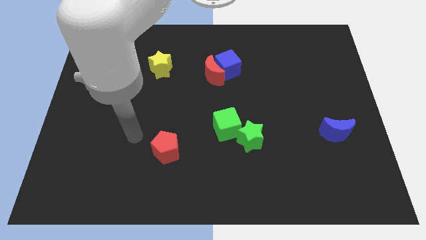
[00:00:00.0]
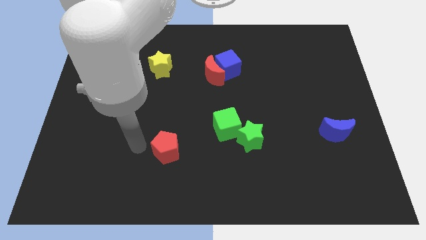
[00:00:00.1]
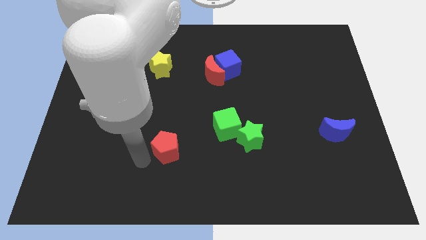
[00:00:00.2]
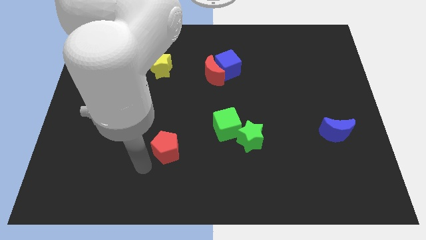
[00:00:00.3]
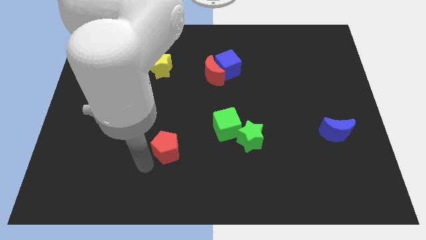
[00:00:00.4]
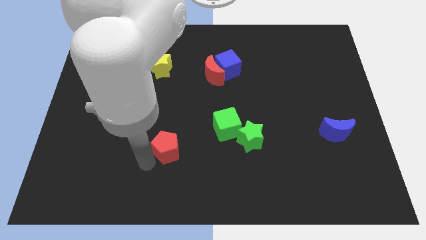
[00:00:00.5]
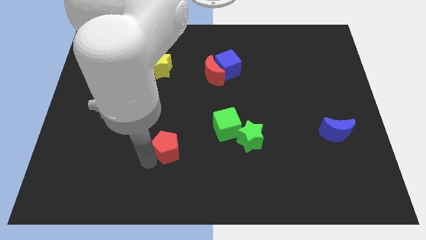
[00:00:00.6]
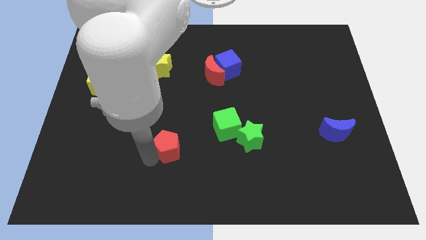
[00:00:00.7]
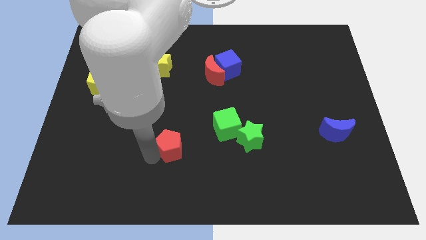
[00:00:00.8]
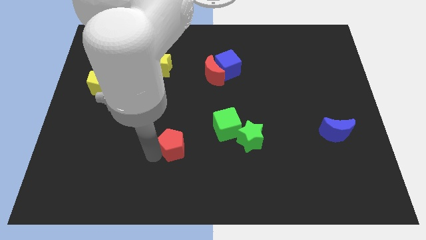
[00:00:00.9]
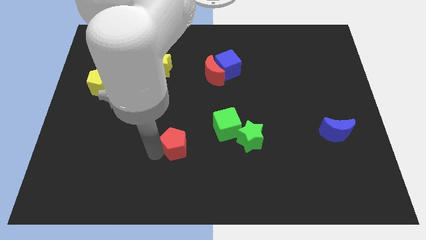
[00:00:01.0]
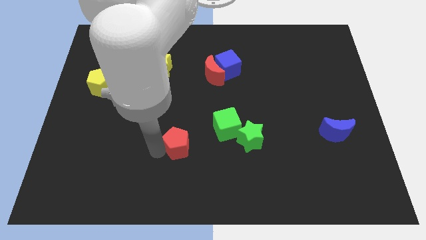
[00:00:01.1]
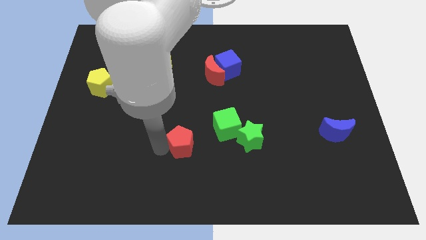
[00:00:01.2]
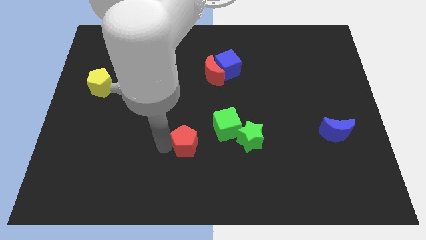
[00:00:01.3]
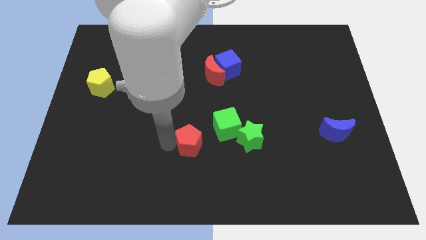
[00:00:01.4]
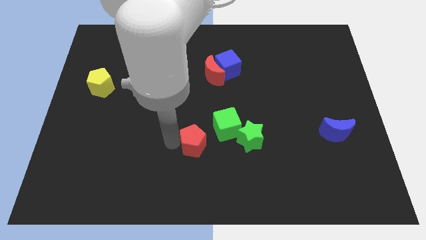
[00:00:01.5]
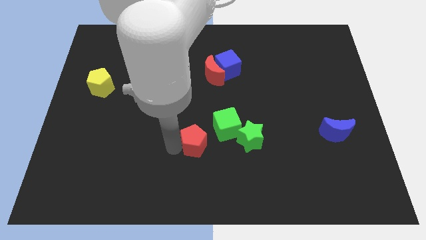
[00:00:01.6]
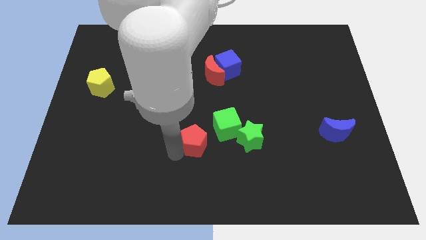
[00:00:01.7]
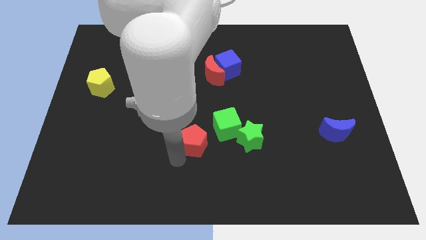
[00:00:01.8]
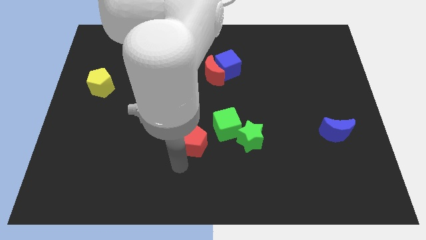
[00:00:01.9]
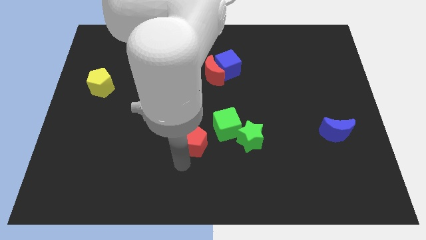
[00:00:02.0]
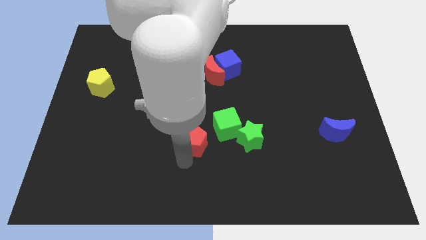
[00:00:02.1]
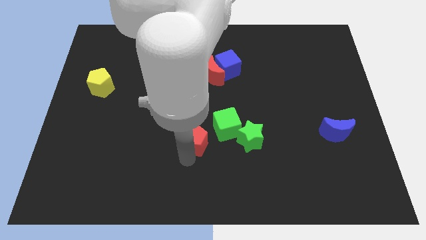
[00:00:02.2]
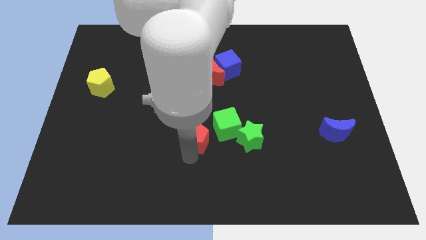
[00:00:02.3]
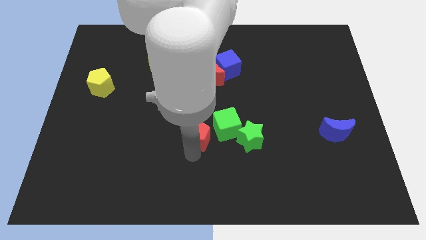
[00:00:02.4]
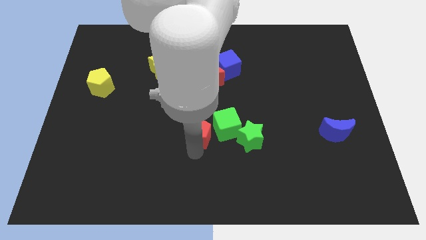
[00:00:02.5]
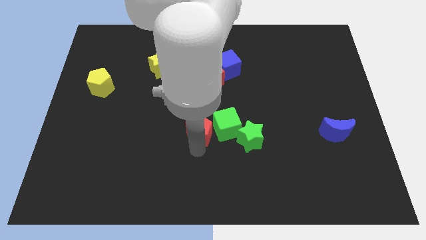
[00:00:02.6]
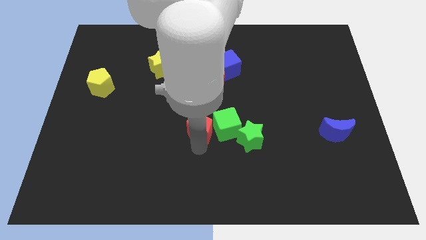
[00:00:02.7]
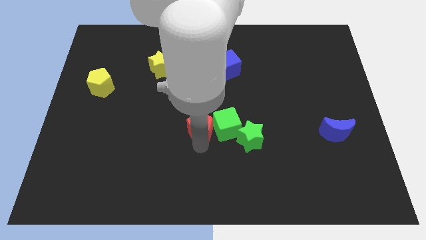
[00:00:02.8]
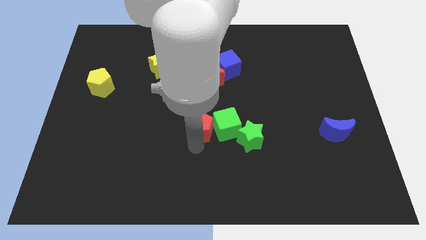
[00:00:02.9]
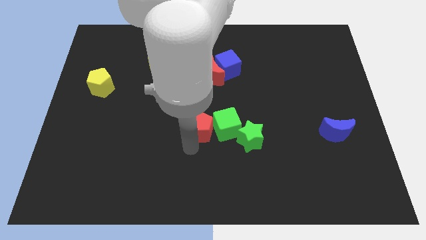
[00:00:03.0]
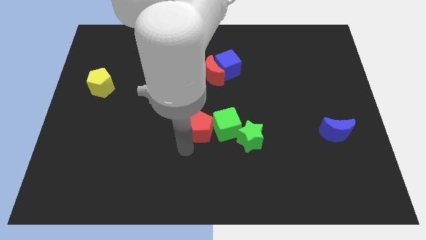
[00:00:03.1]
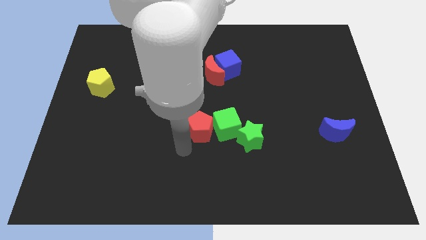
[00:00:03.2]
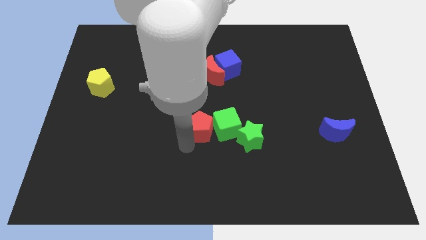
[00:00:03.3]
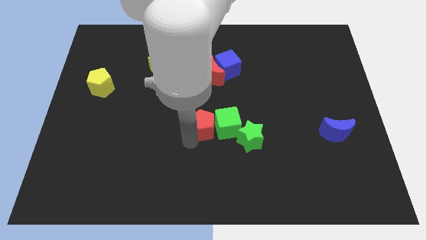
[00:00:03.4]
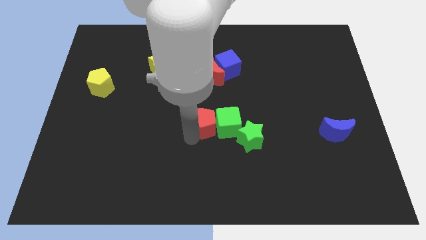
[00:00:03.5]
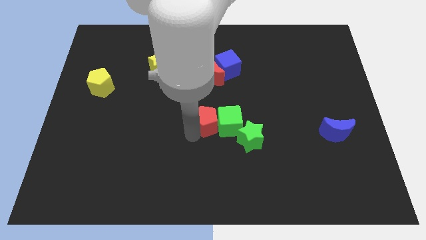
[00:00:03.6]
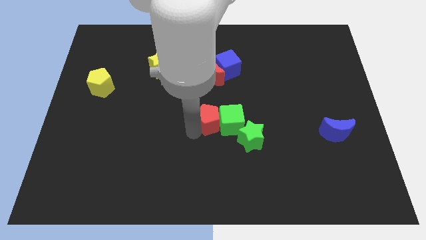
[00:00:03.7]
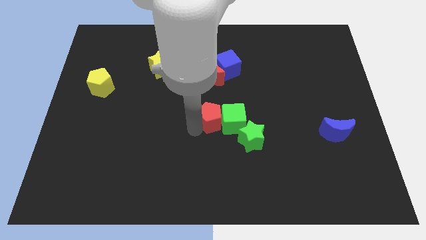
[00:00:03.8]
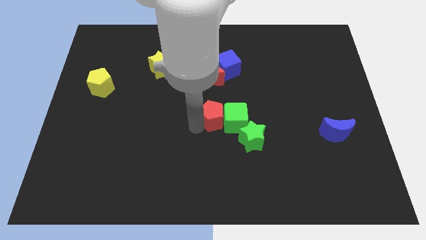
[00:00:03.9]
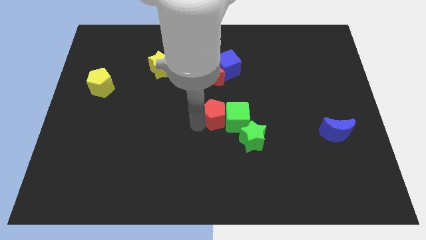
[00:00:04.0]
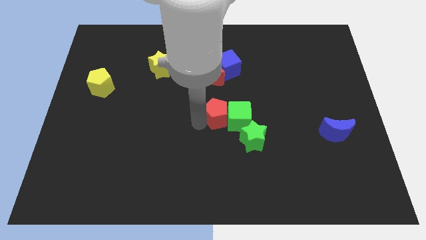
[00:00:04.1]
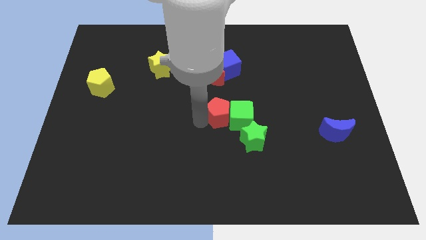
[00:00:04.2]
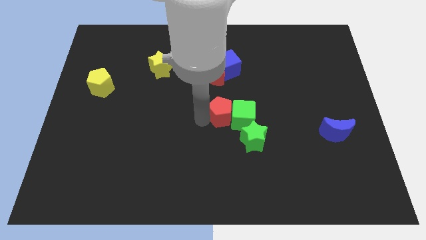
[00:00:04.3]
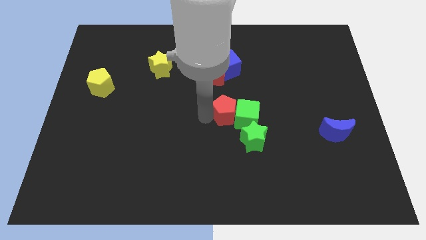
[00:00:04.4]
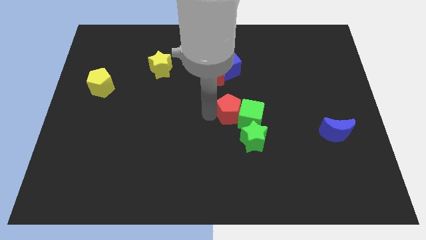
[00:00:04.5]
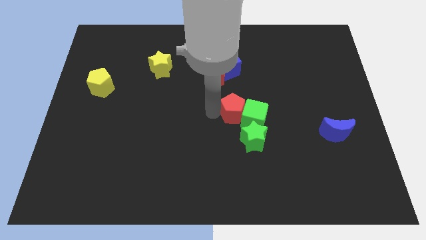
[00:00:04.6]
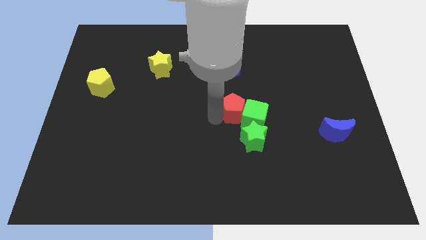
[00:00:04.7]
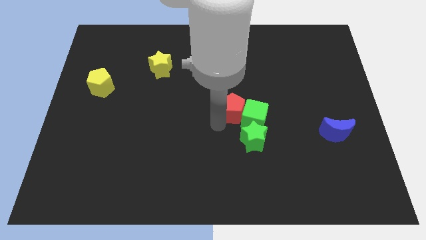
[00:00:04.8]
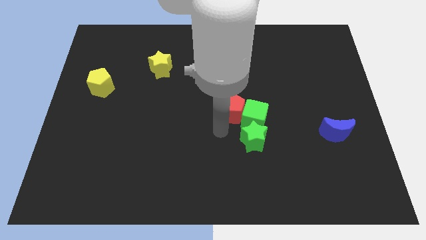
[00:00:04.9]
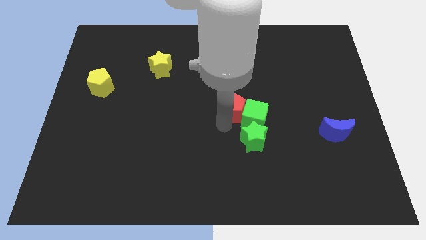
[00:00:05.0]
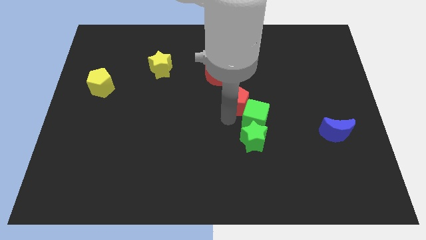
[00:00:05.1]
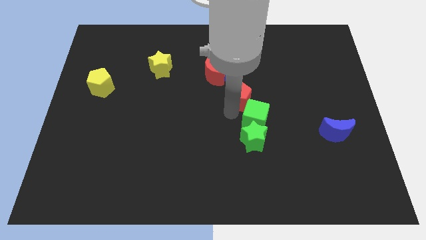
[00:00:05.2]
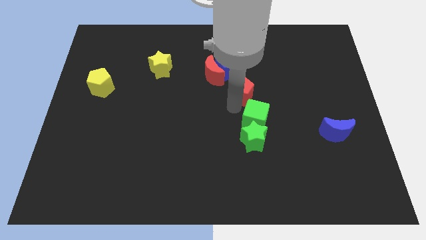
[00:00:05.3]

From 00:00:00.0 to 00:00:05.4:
push the red pentagon diagonally down and to the right of the blue cube

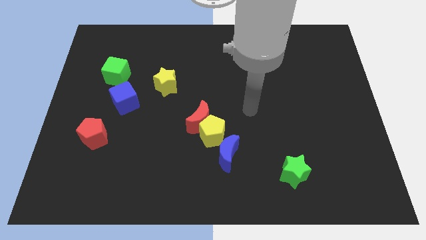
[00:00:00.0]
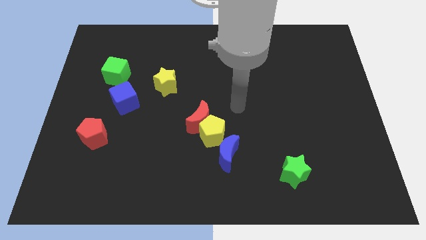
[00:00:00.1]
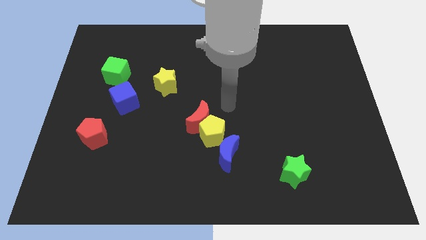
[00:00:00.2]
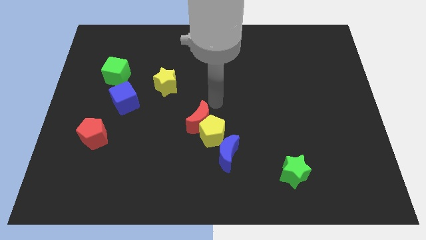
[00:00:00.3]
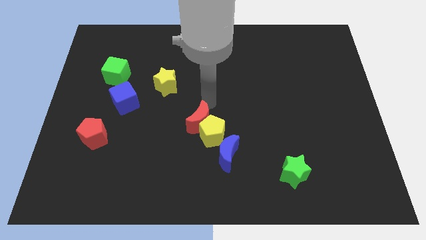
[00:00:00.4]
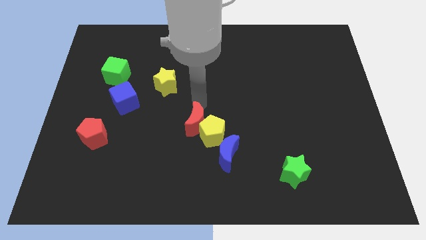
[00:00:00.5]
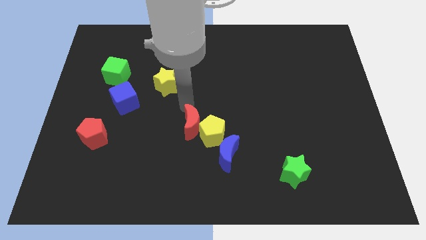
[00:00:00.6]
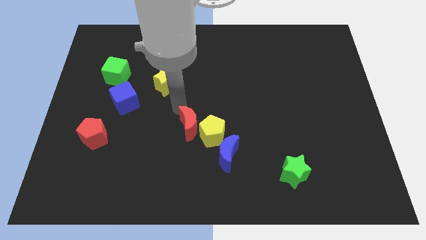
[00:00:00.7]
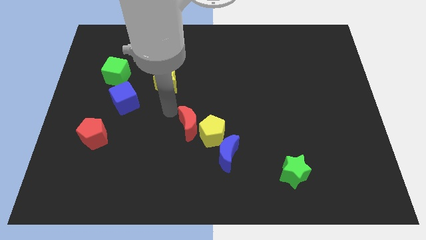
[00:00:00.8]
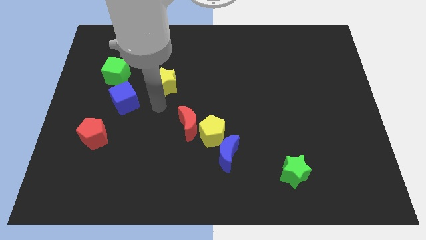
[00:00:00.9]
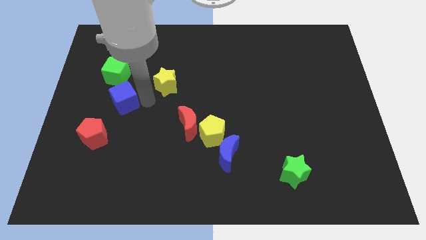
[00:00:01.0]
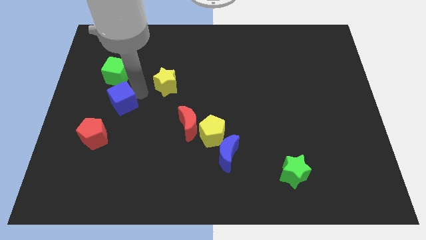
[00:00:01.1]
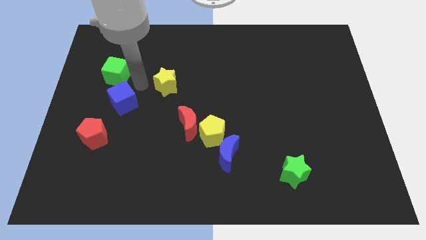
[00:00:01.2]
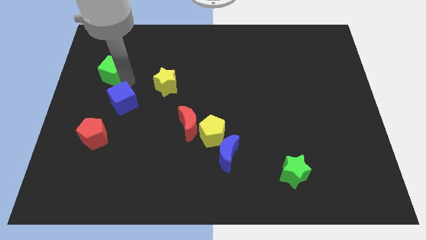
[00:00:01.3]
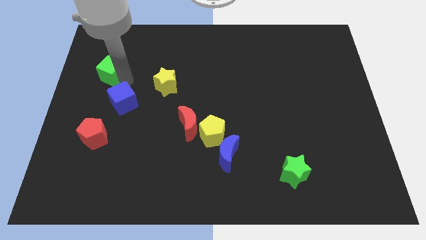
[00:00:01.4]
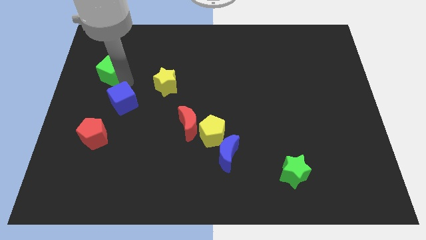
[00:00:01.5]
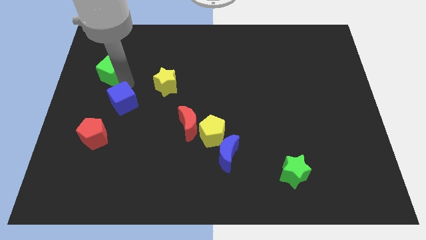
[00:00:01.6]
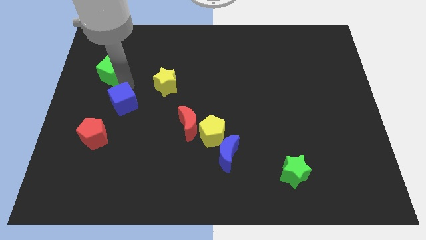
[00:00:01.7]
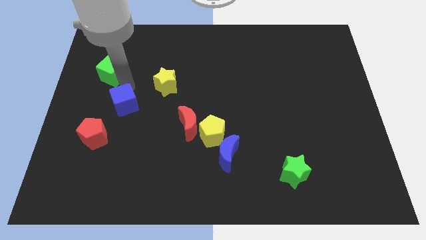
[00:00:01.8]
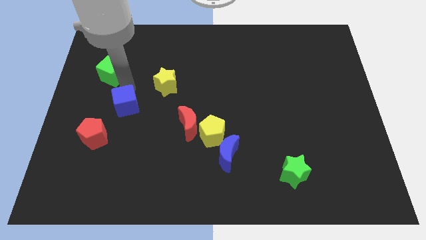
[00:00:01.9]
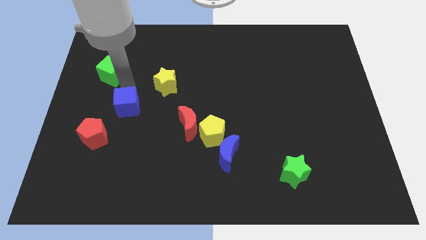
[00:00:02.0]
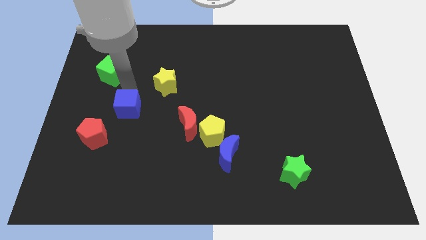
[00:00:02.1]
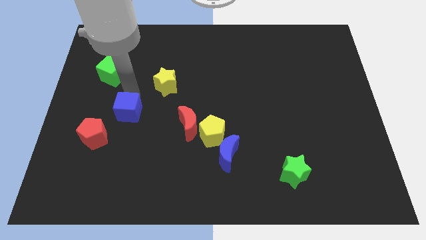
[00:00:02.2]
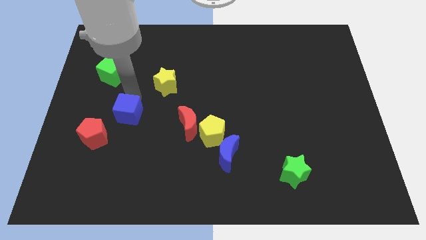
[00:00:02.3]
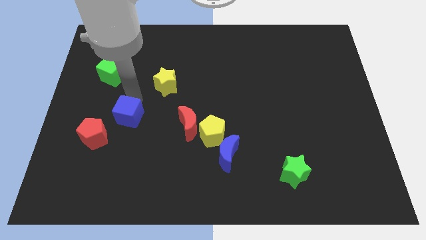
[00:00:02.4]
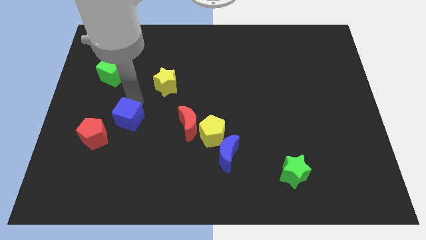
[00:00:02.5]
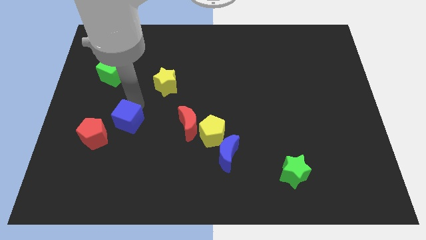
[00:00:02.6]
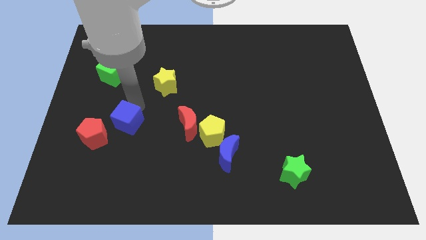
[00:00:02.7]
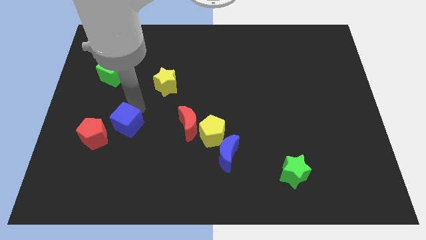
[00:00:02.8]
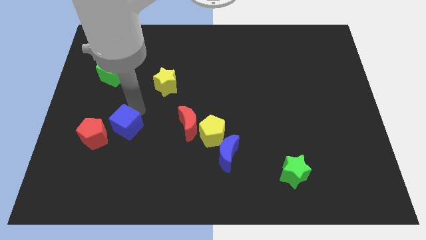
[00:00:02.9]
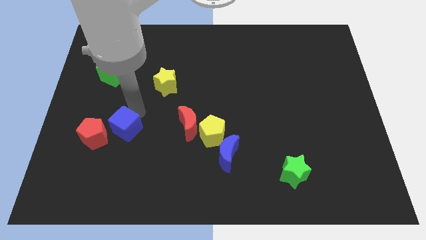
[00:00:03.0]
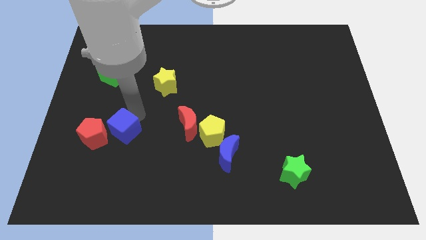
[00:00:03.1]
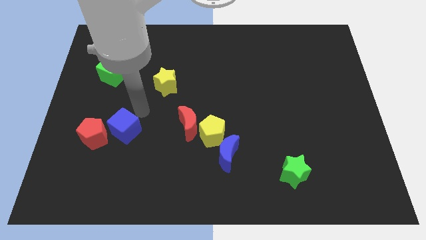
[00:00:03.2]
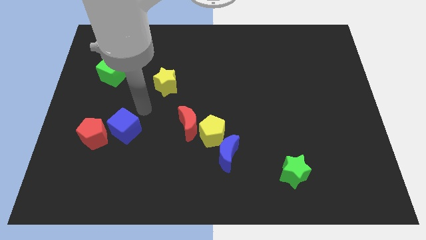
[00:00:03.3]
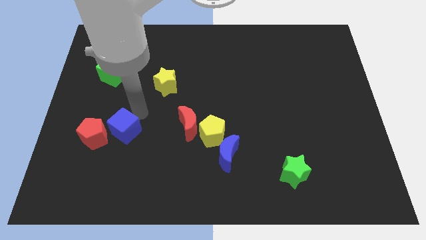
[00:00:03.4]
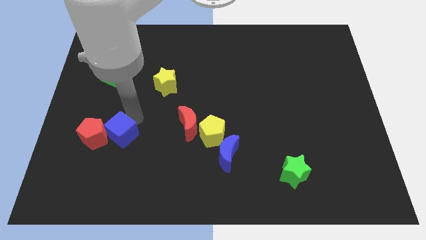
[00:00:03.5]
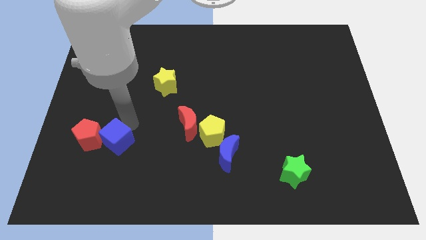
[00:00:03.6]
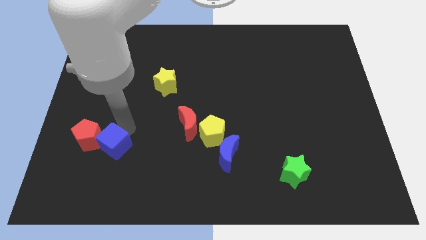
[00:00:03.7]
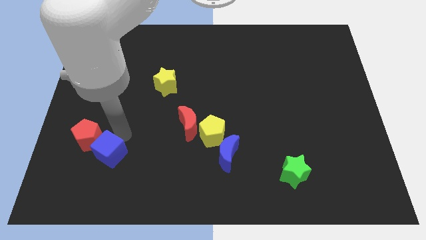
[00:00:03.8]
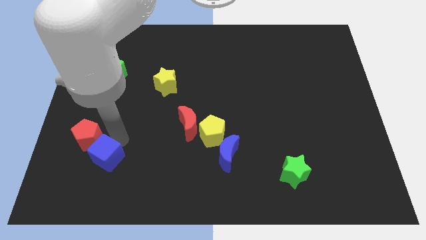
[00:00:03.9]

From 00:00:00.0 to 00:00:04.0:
slide the blue cube to the bottom side of the red pentagon
